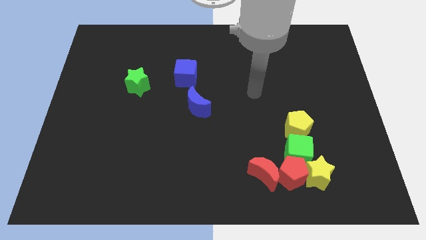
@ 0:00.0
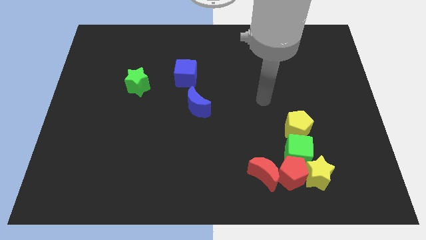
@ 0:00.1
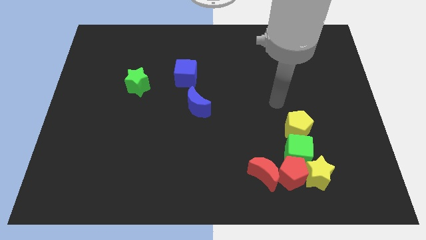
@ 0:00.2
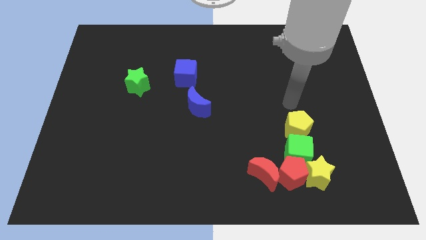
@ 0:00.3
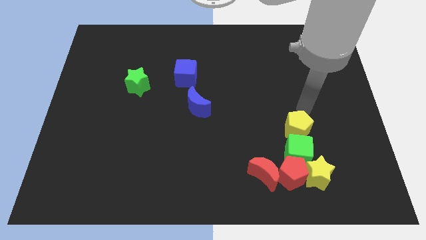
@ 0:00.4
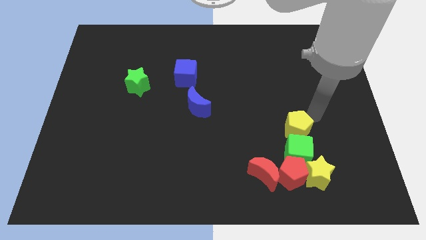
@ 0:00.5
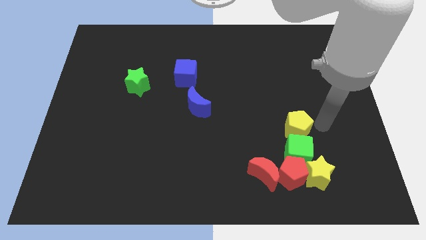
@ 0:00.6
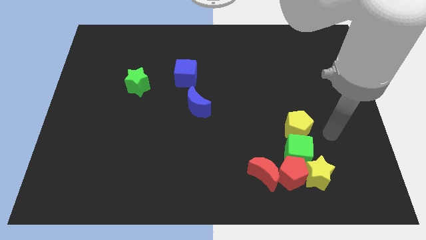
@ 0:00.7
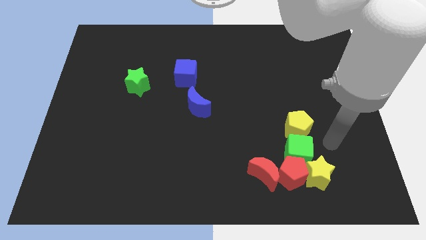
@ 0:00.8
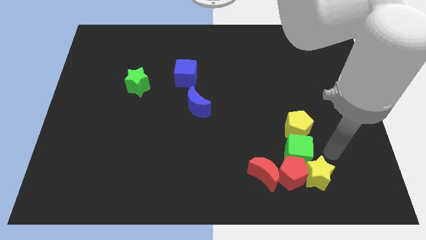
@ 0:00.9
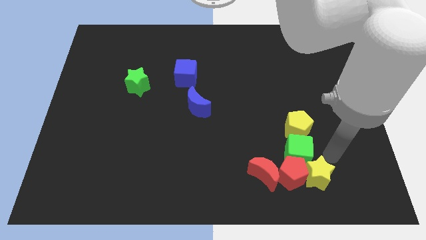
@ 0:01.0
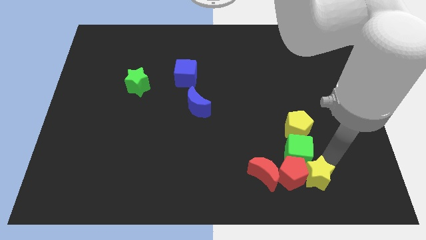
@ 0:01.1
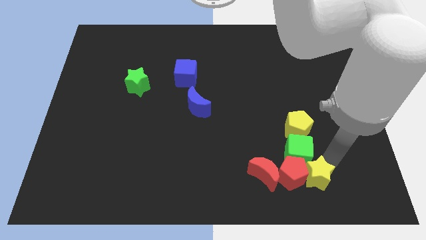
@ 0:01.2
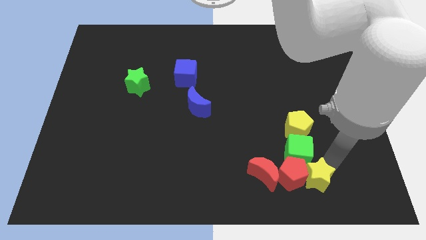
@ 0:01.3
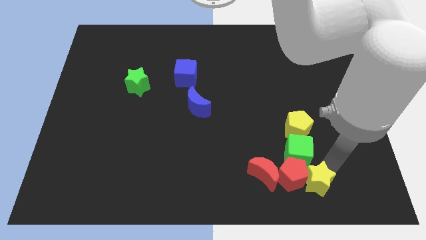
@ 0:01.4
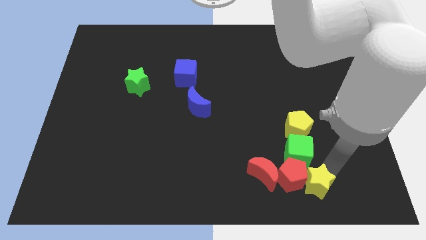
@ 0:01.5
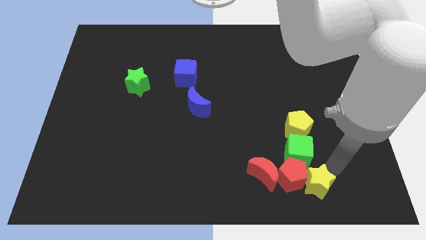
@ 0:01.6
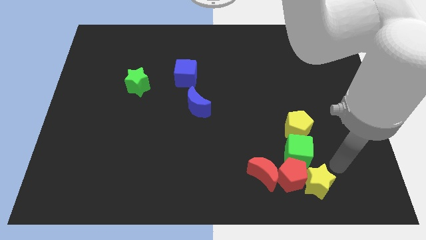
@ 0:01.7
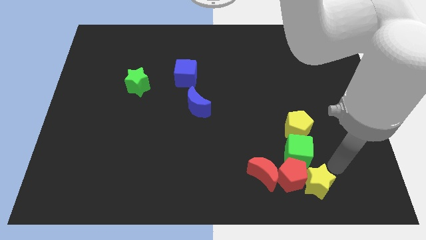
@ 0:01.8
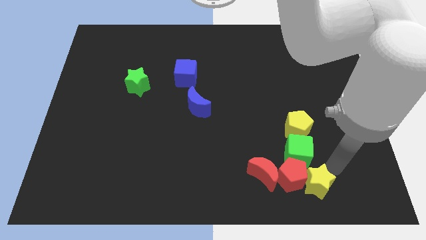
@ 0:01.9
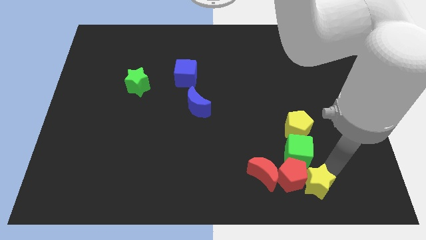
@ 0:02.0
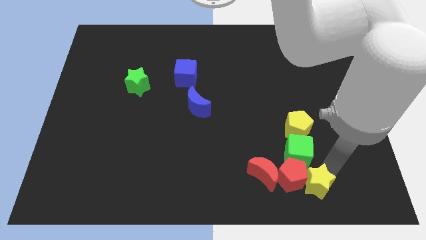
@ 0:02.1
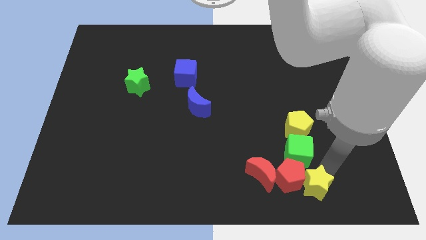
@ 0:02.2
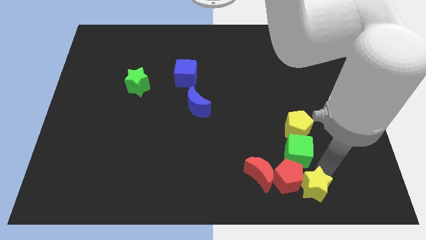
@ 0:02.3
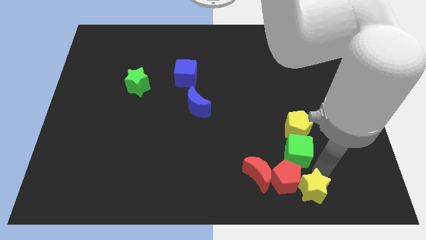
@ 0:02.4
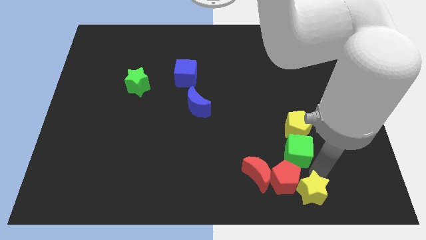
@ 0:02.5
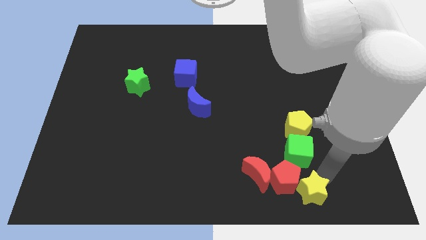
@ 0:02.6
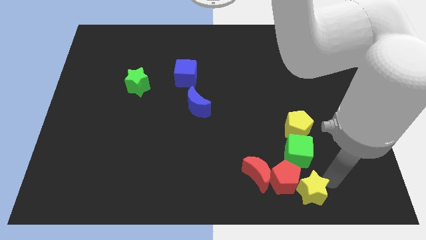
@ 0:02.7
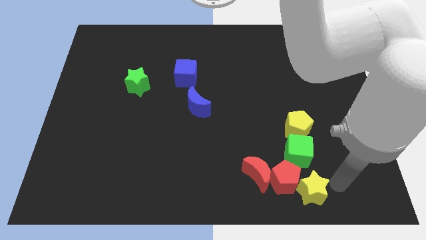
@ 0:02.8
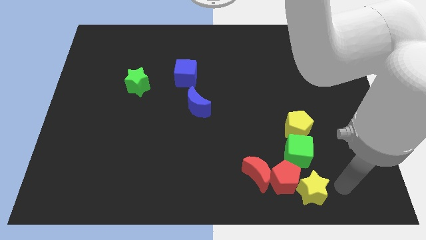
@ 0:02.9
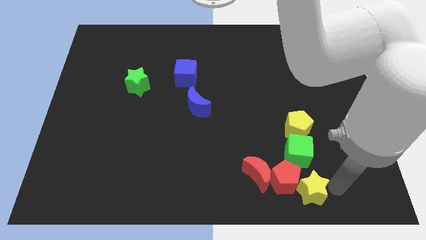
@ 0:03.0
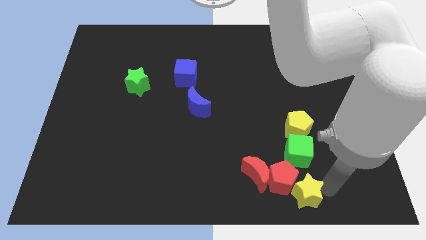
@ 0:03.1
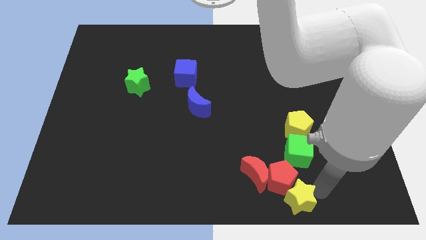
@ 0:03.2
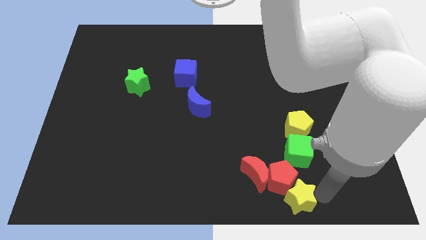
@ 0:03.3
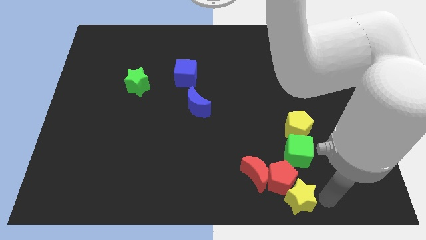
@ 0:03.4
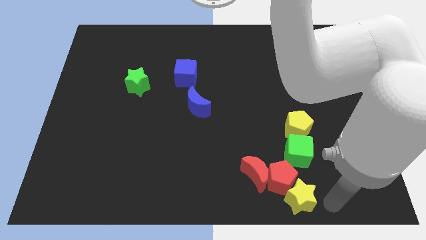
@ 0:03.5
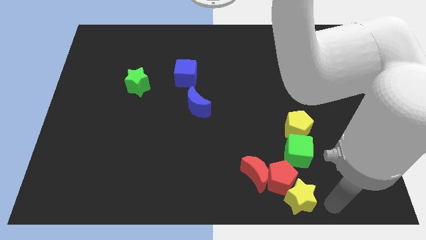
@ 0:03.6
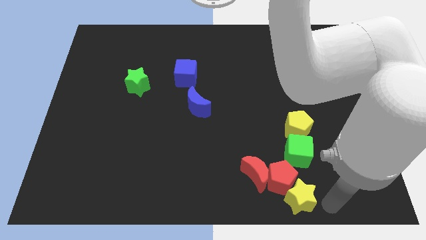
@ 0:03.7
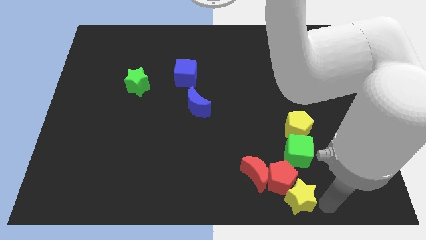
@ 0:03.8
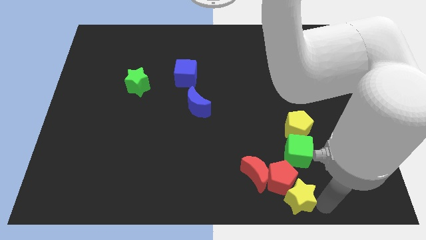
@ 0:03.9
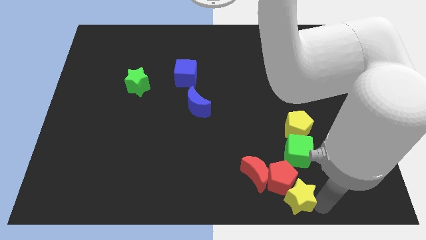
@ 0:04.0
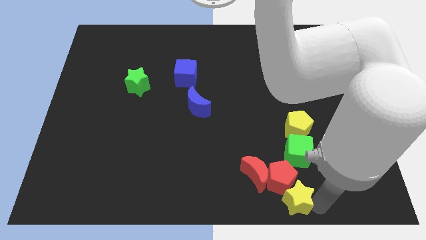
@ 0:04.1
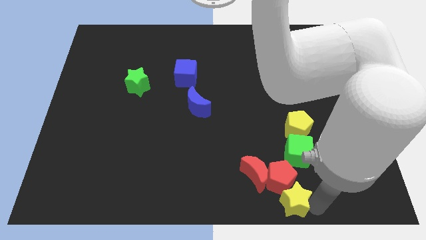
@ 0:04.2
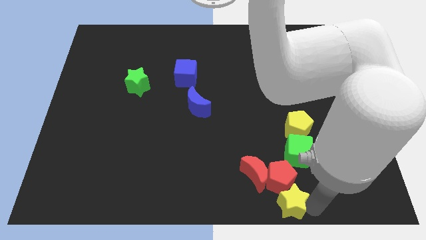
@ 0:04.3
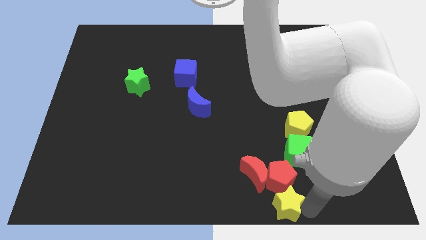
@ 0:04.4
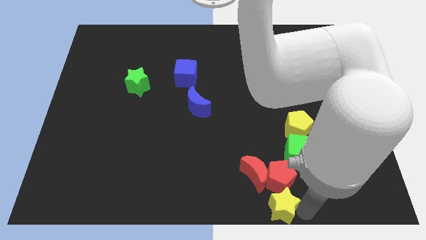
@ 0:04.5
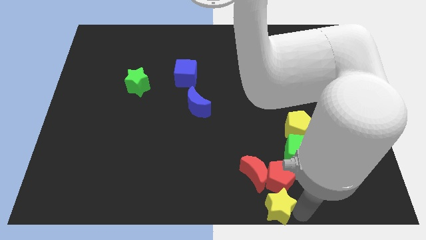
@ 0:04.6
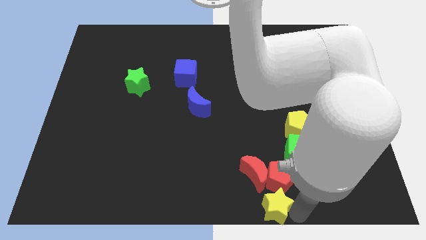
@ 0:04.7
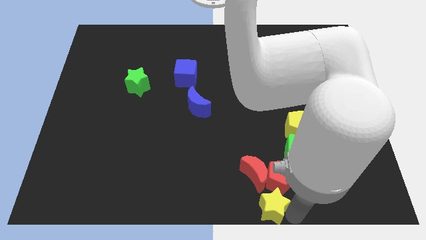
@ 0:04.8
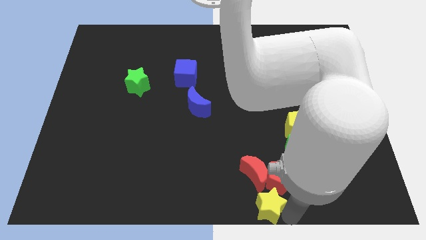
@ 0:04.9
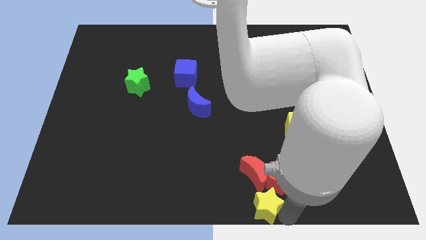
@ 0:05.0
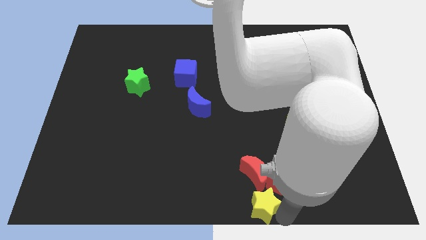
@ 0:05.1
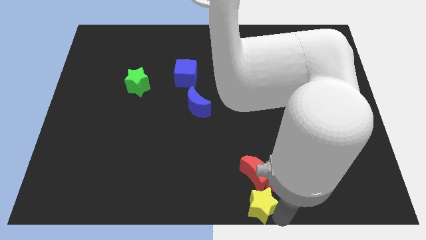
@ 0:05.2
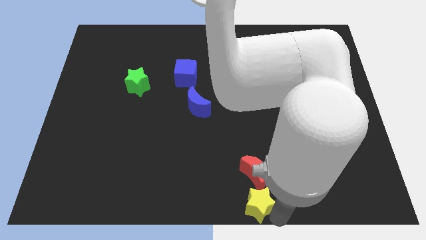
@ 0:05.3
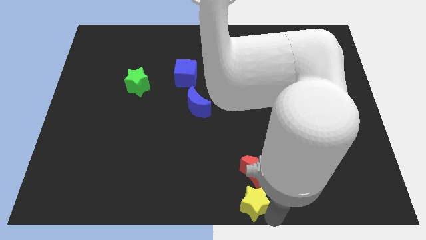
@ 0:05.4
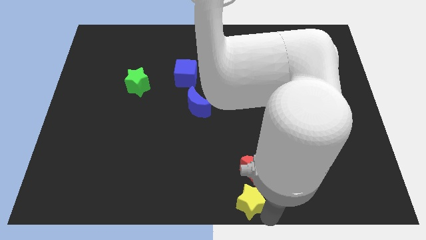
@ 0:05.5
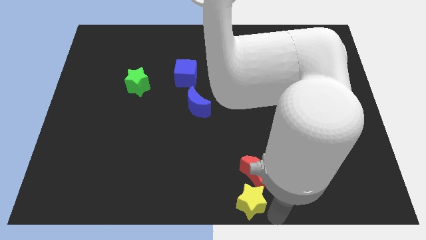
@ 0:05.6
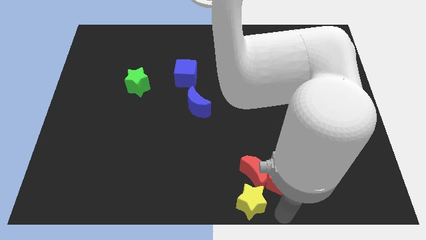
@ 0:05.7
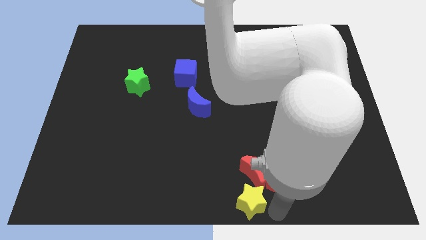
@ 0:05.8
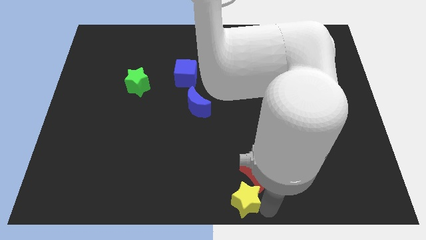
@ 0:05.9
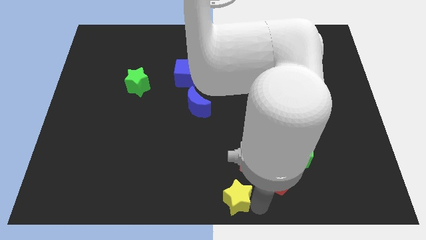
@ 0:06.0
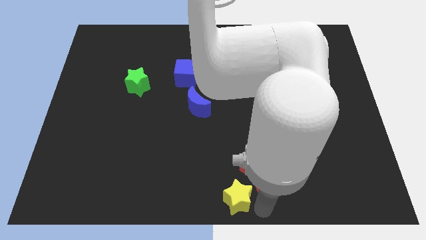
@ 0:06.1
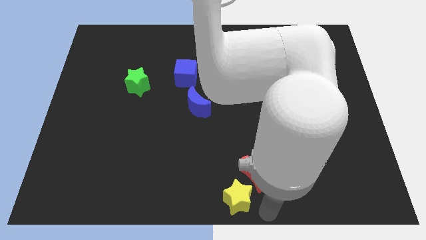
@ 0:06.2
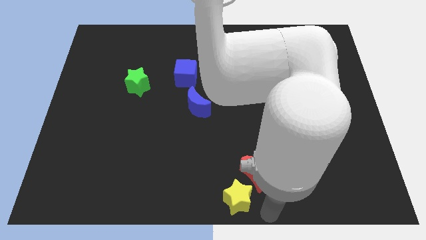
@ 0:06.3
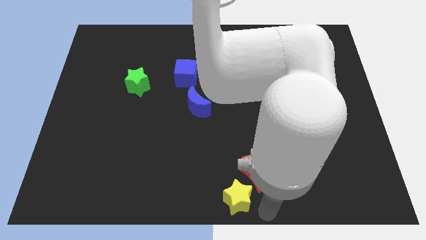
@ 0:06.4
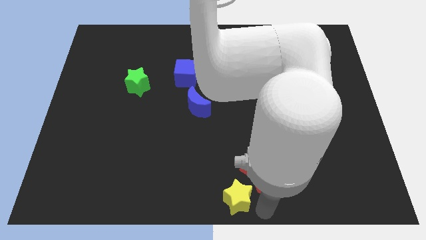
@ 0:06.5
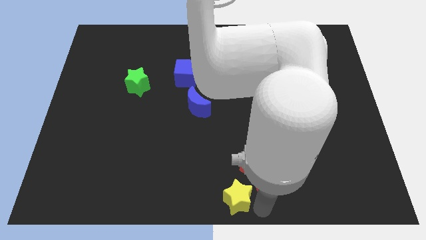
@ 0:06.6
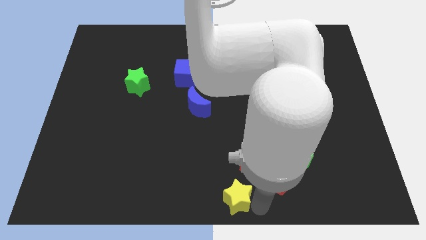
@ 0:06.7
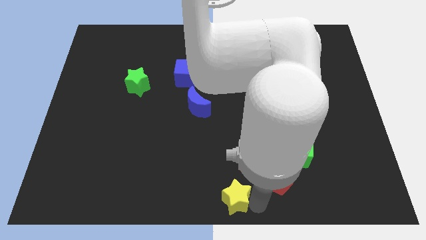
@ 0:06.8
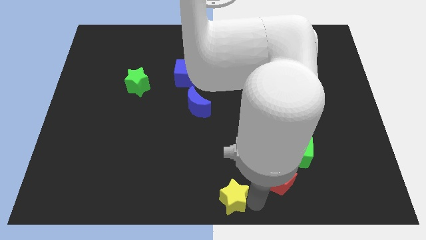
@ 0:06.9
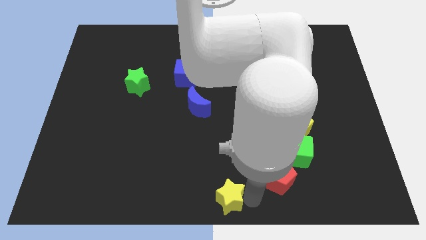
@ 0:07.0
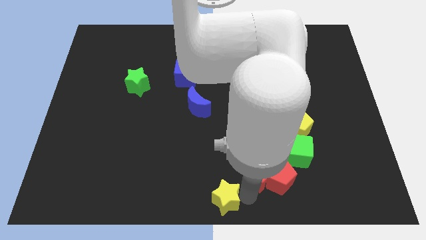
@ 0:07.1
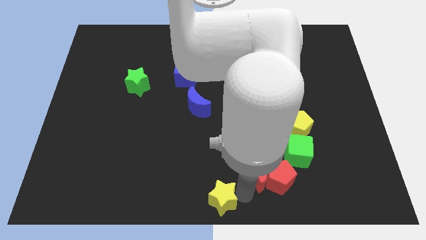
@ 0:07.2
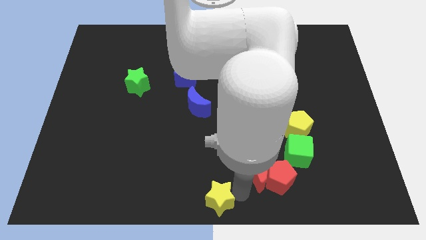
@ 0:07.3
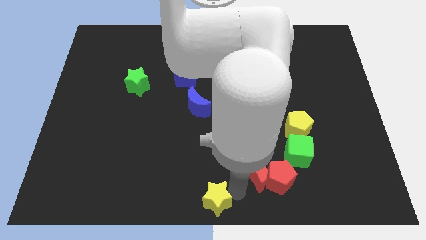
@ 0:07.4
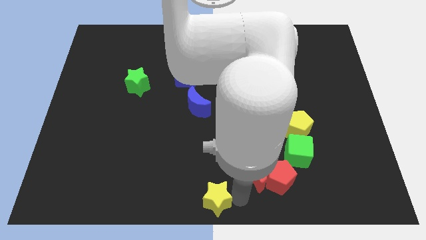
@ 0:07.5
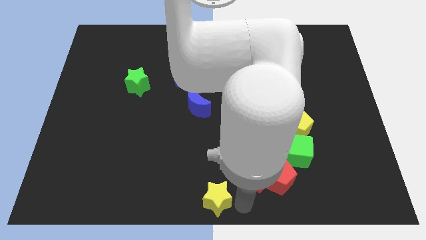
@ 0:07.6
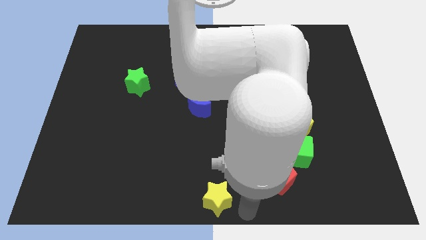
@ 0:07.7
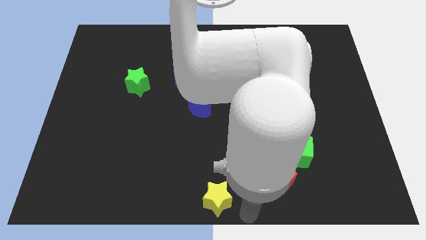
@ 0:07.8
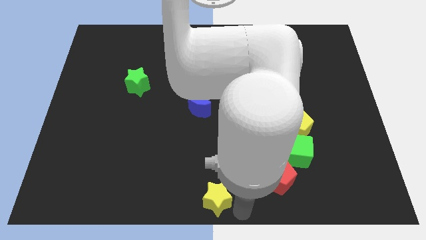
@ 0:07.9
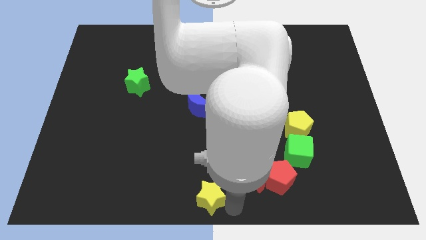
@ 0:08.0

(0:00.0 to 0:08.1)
move the yellow star to the left
